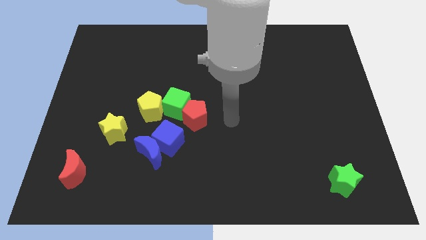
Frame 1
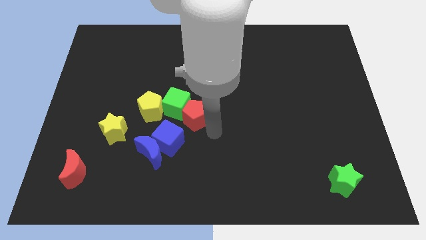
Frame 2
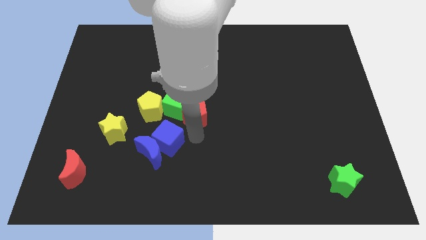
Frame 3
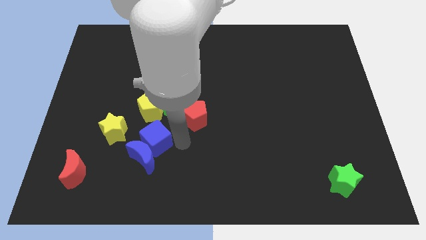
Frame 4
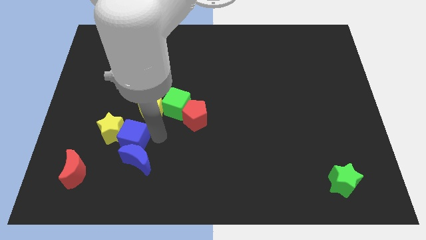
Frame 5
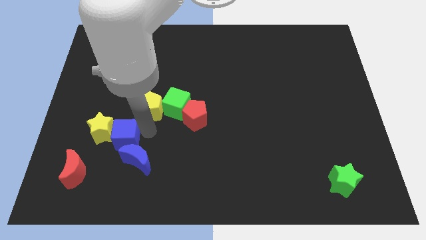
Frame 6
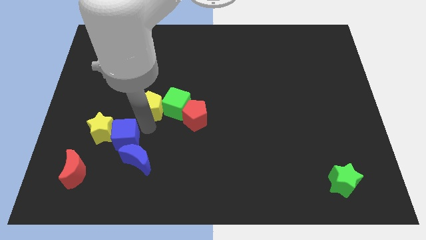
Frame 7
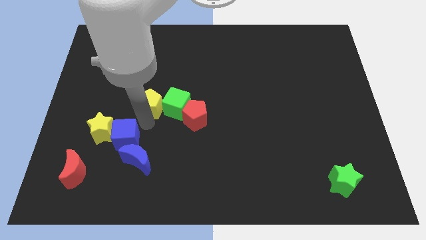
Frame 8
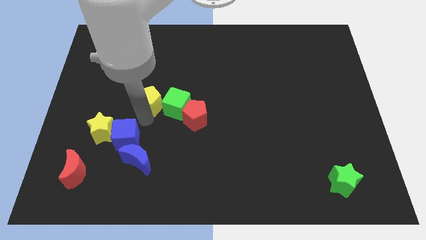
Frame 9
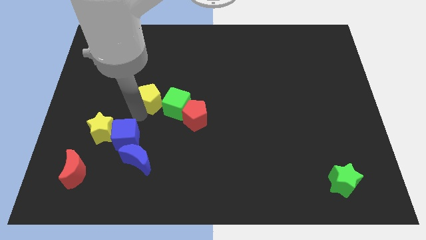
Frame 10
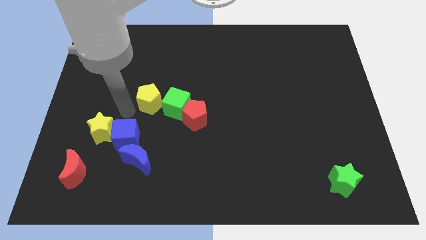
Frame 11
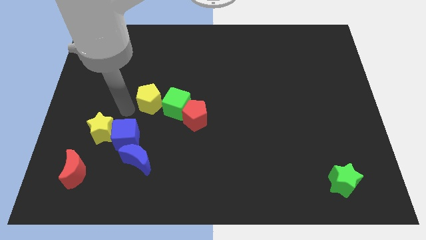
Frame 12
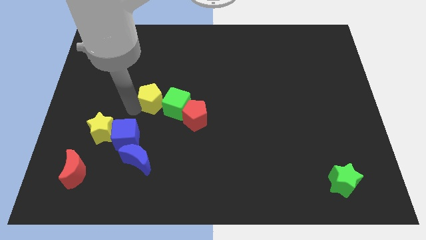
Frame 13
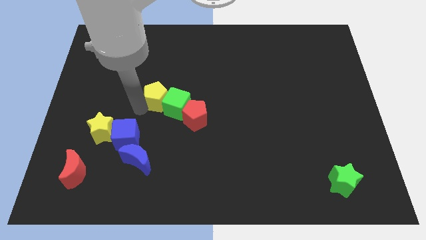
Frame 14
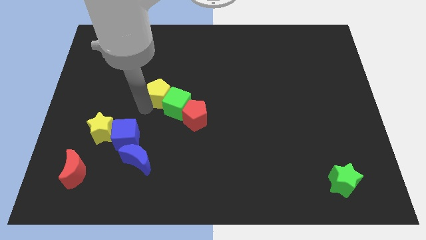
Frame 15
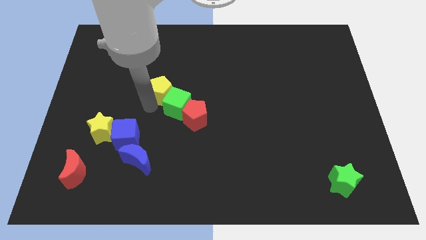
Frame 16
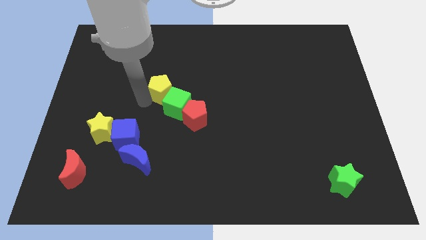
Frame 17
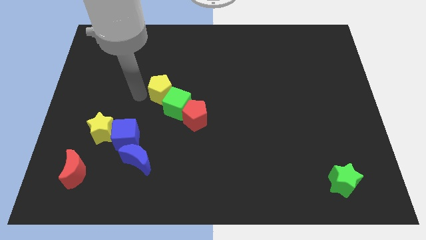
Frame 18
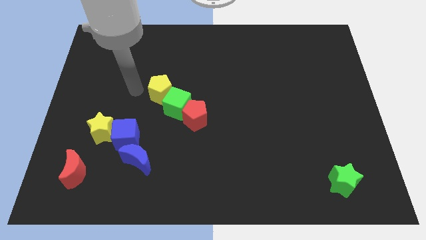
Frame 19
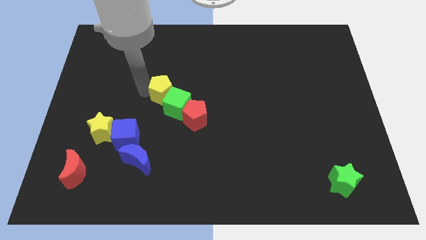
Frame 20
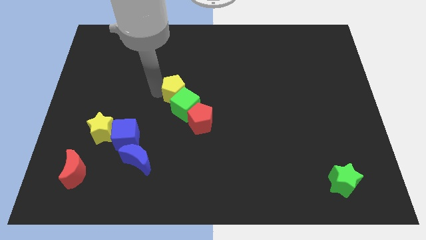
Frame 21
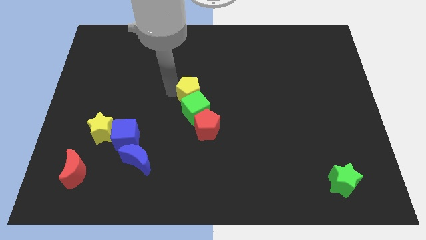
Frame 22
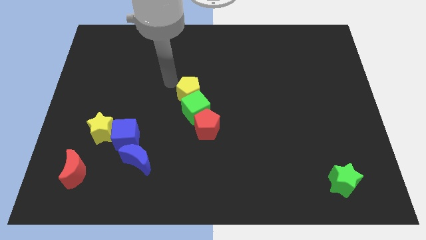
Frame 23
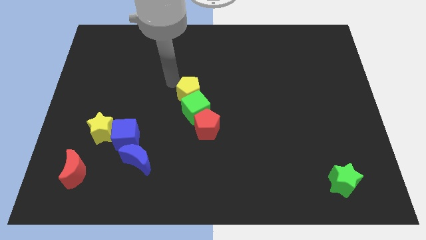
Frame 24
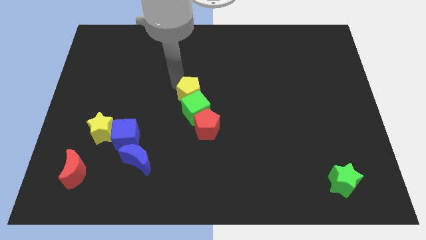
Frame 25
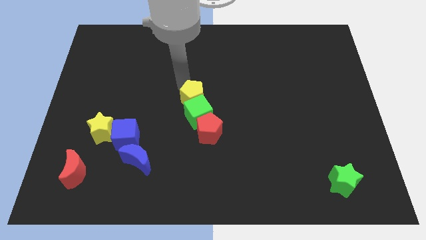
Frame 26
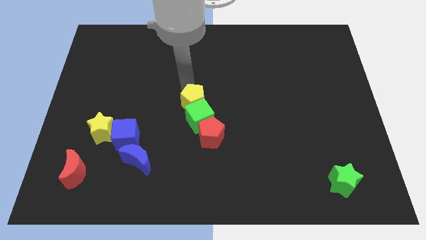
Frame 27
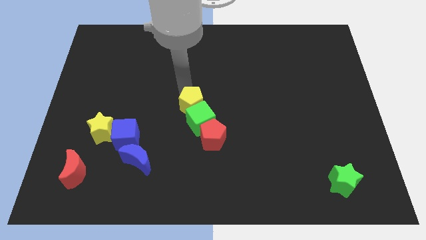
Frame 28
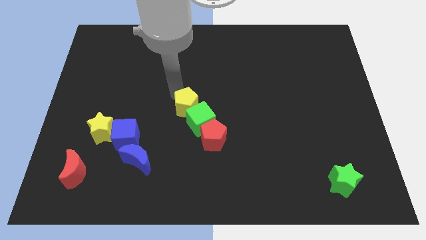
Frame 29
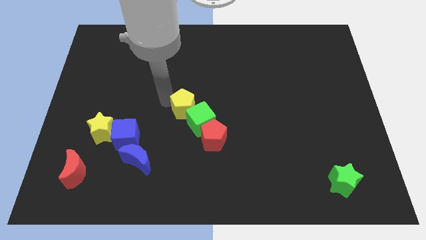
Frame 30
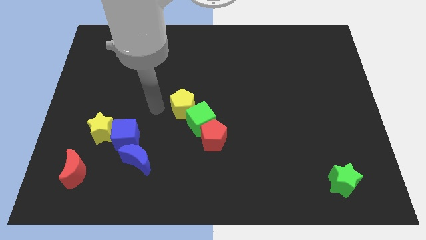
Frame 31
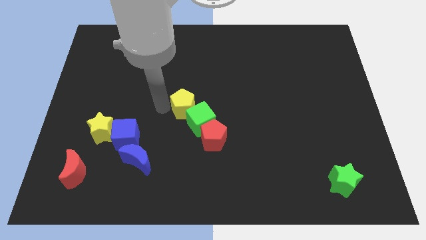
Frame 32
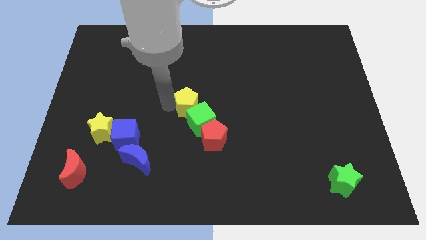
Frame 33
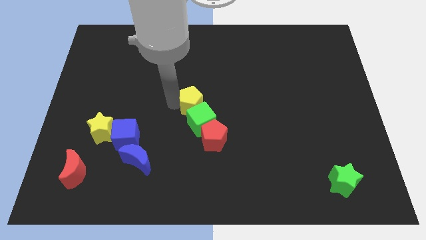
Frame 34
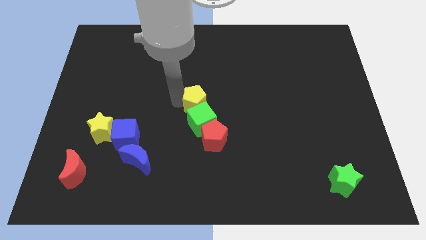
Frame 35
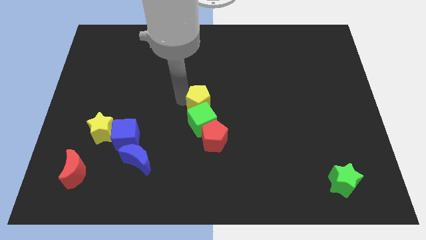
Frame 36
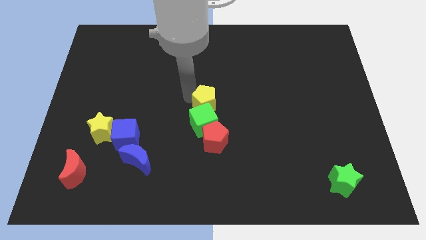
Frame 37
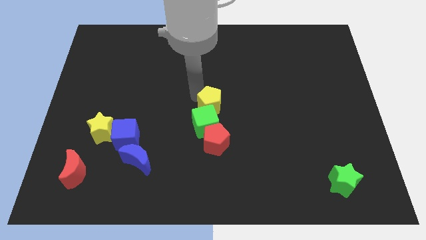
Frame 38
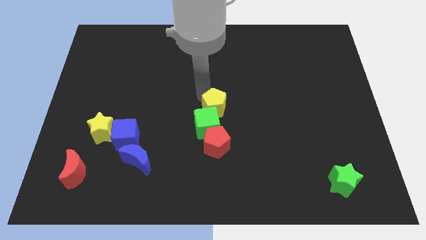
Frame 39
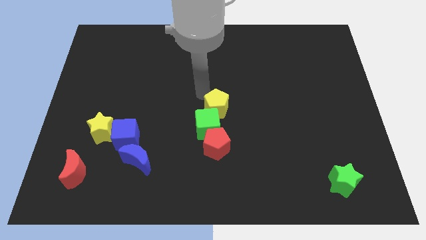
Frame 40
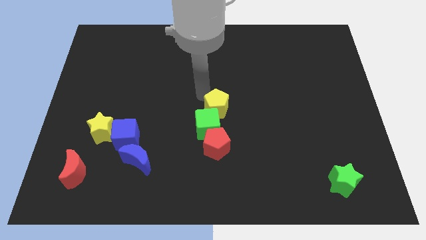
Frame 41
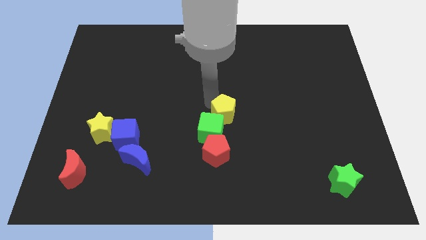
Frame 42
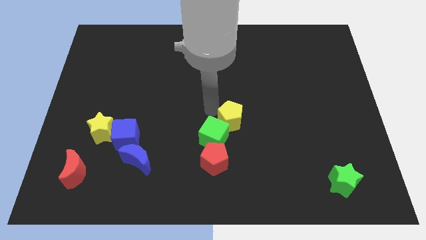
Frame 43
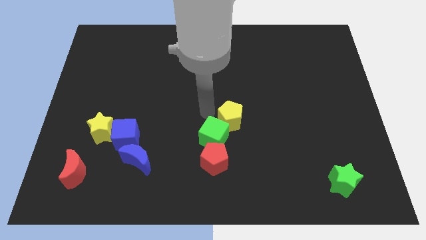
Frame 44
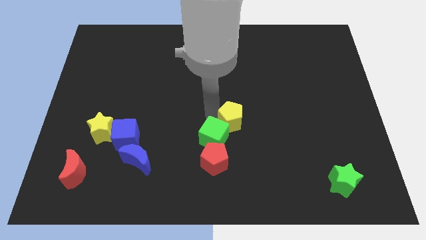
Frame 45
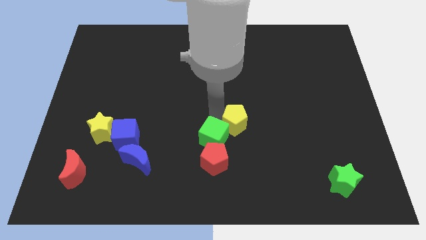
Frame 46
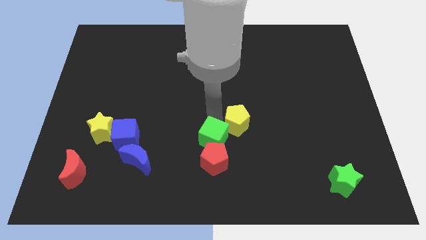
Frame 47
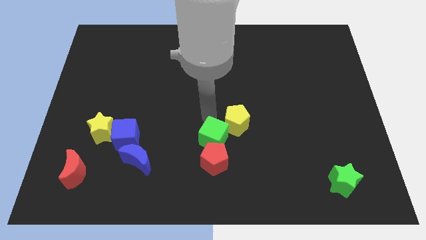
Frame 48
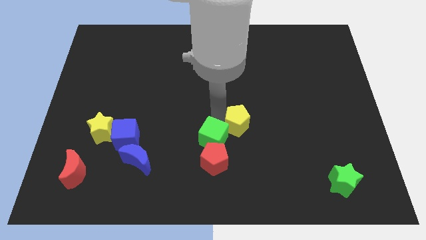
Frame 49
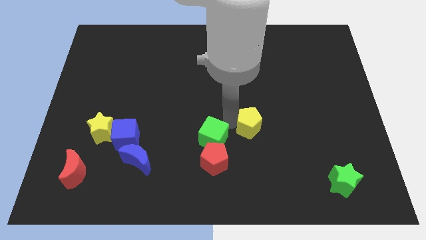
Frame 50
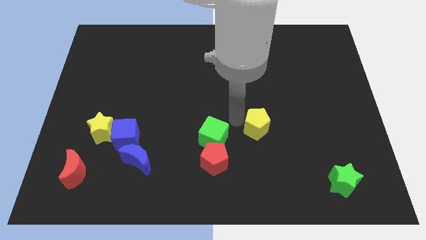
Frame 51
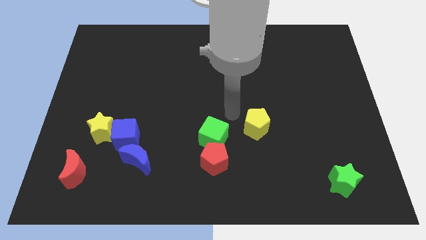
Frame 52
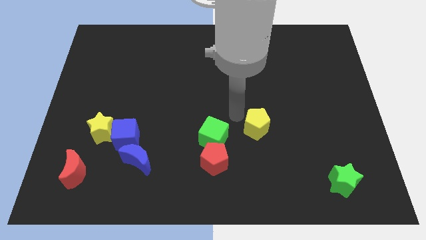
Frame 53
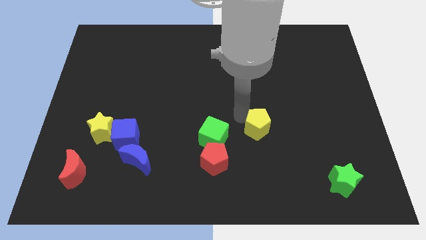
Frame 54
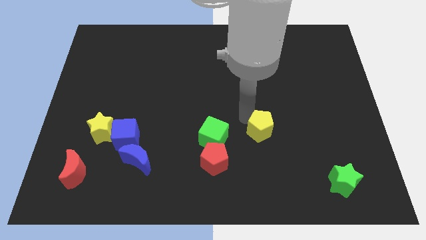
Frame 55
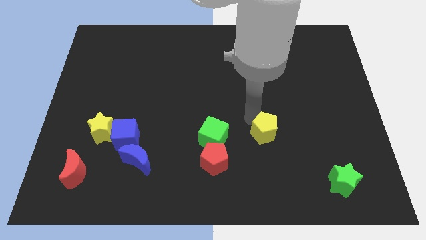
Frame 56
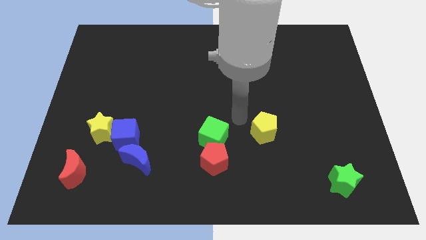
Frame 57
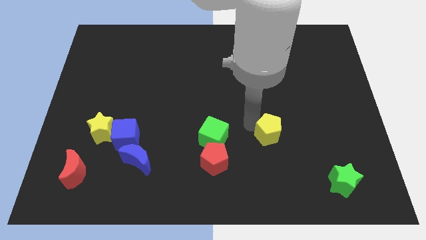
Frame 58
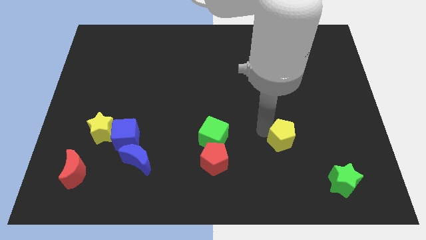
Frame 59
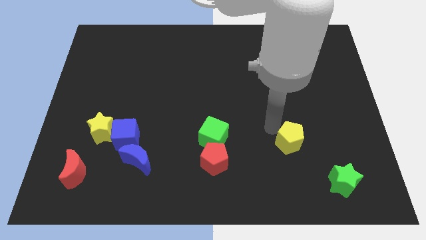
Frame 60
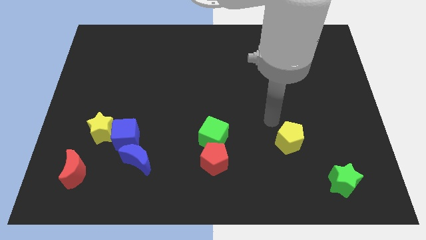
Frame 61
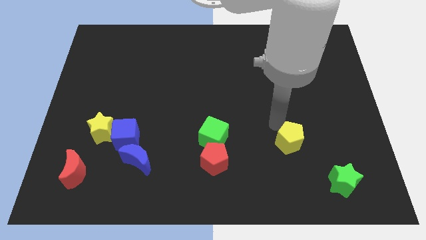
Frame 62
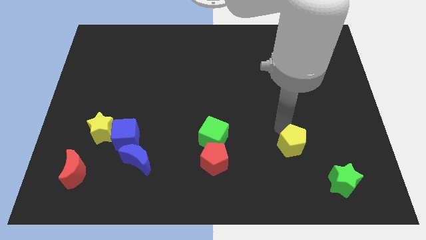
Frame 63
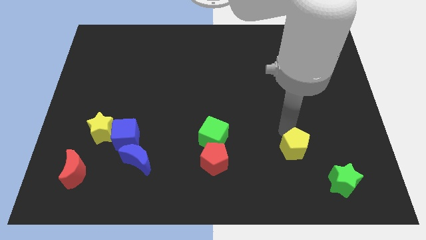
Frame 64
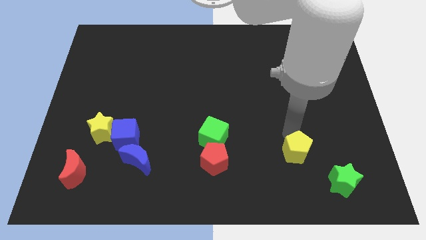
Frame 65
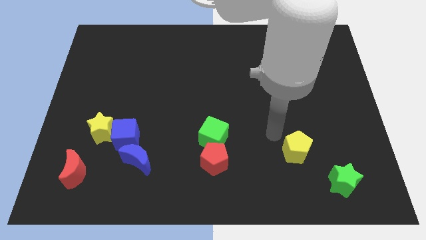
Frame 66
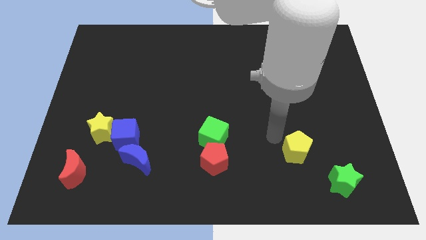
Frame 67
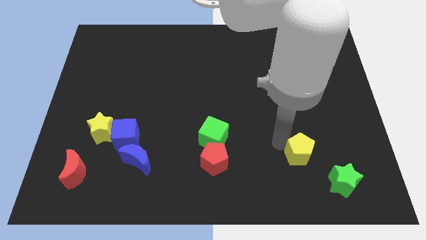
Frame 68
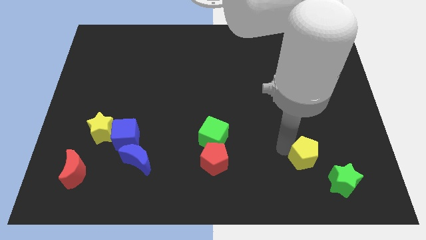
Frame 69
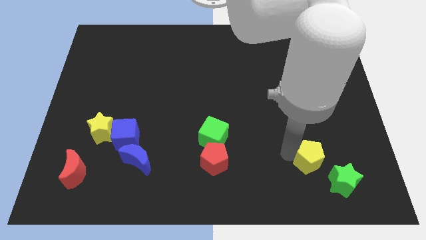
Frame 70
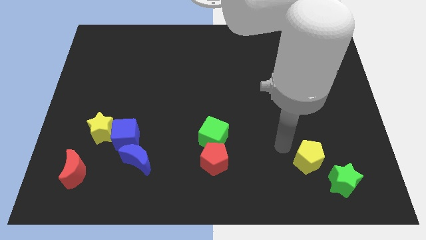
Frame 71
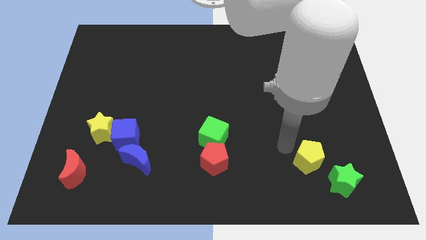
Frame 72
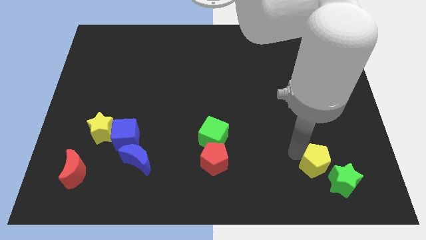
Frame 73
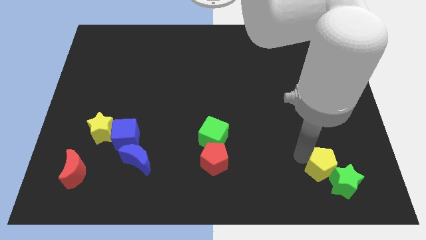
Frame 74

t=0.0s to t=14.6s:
push the yellow pentagon to the green star
